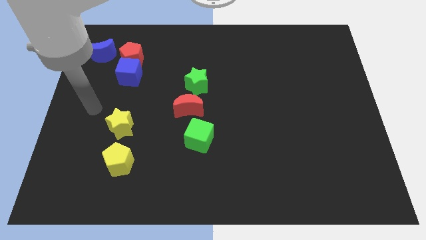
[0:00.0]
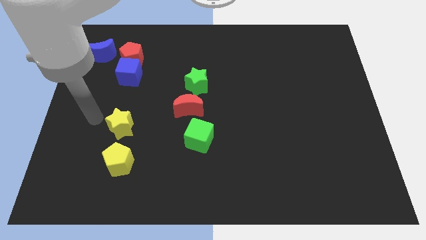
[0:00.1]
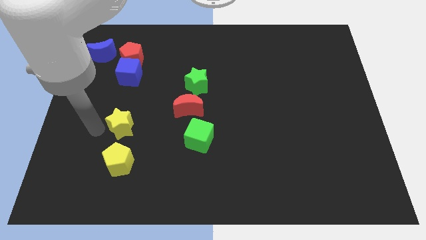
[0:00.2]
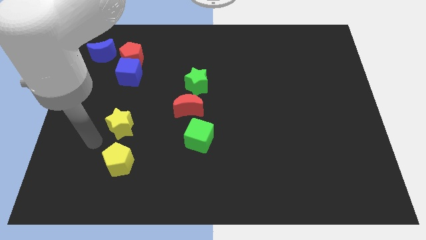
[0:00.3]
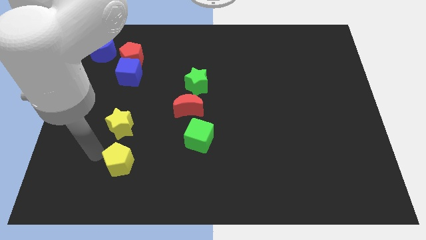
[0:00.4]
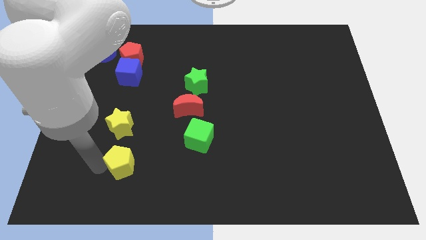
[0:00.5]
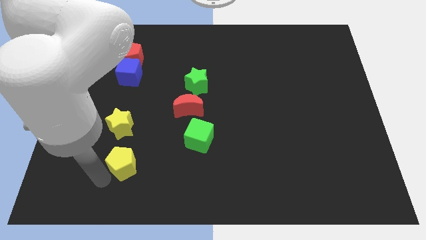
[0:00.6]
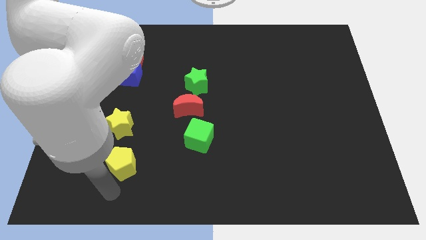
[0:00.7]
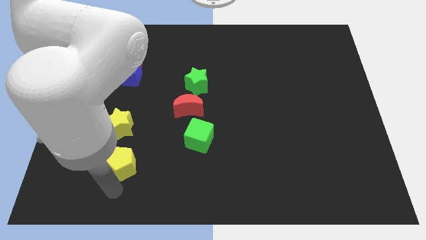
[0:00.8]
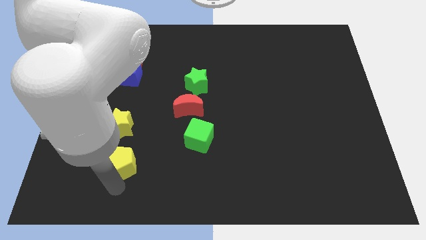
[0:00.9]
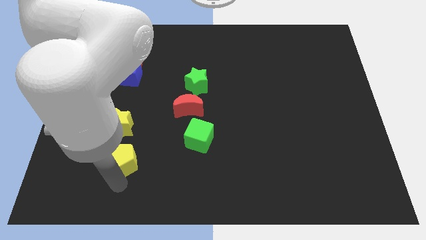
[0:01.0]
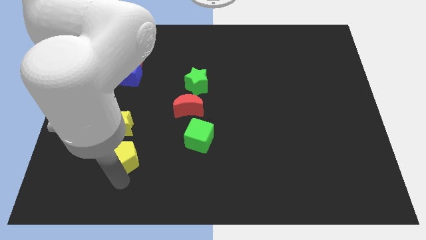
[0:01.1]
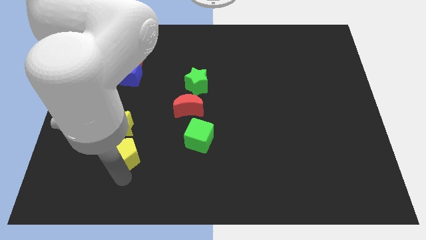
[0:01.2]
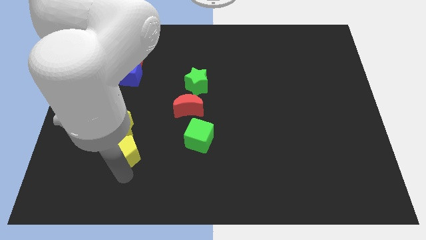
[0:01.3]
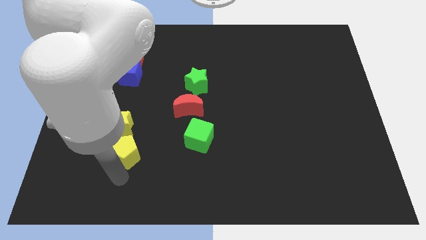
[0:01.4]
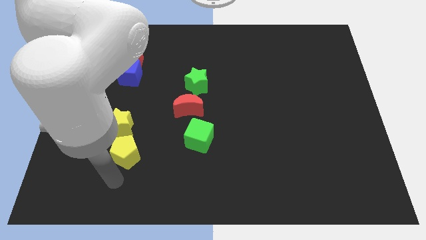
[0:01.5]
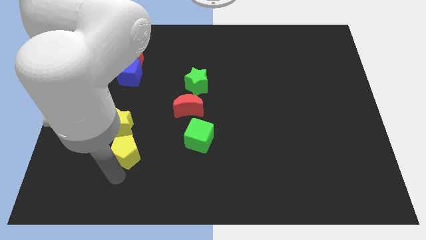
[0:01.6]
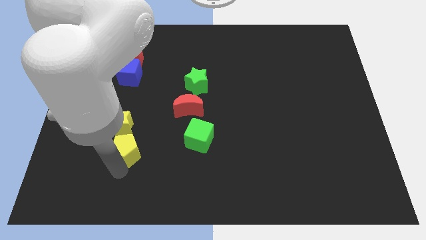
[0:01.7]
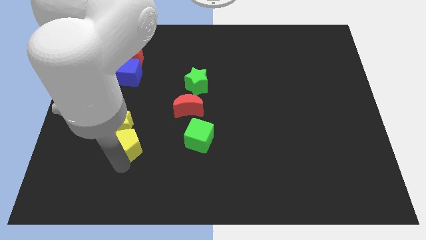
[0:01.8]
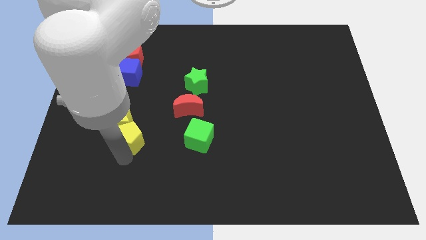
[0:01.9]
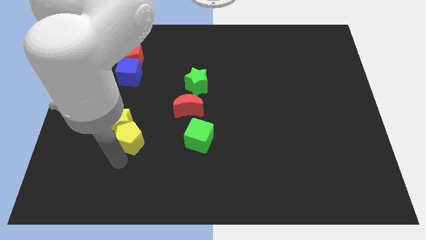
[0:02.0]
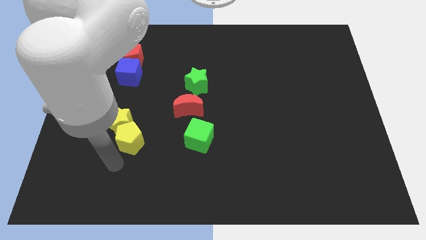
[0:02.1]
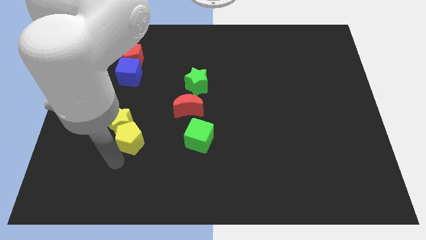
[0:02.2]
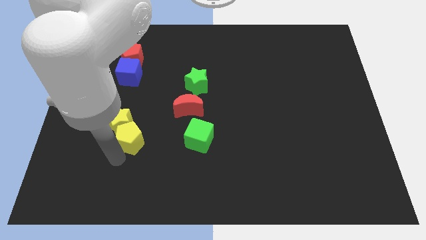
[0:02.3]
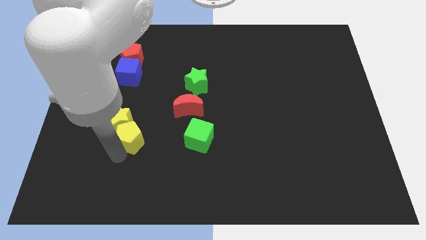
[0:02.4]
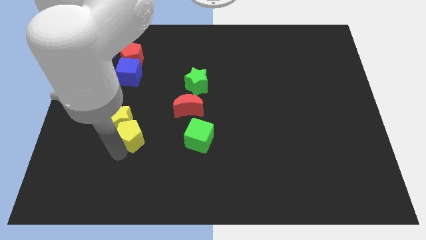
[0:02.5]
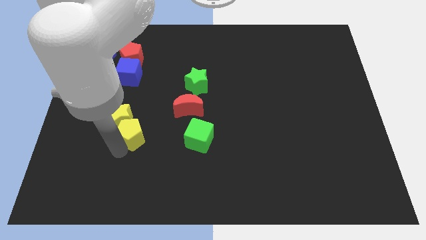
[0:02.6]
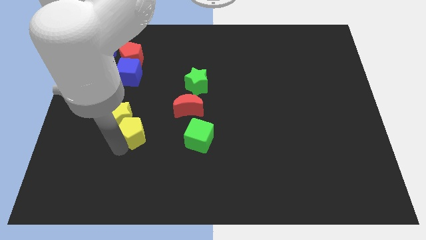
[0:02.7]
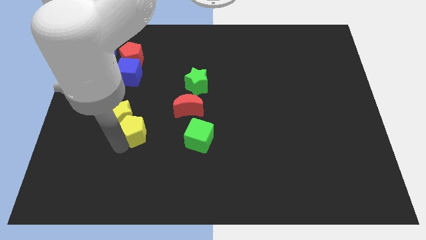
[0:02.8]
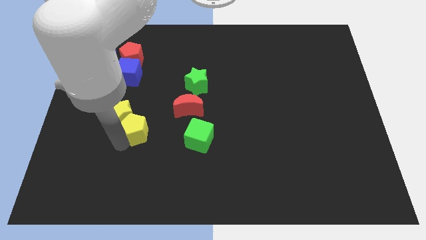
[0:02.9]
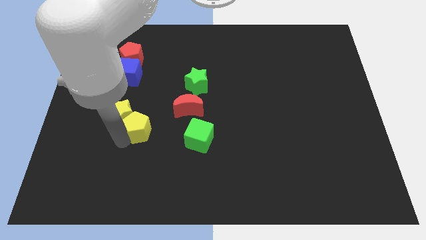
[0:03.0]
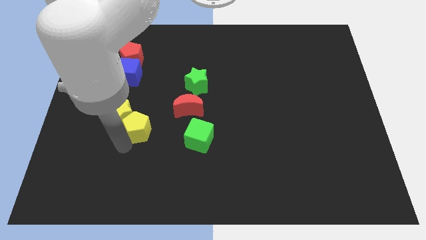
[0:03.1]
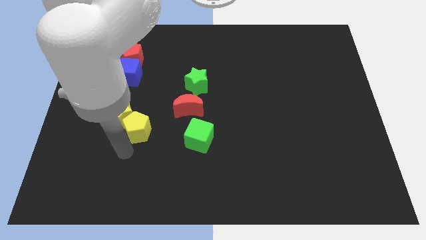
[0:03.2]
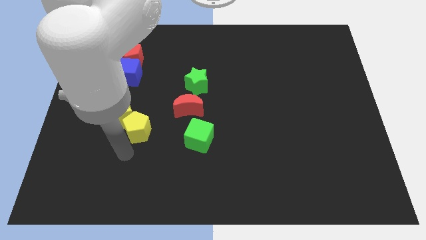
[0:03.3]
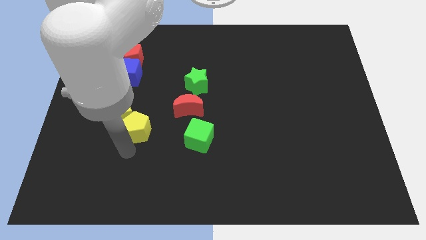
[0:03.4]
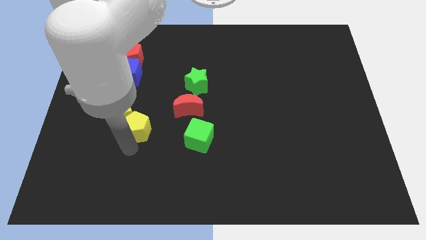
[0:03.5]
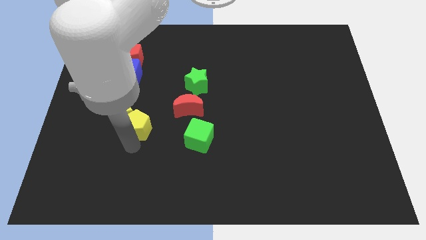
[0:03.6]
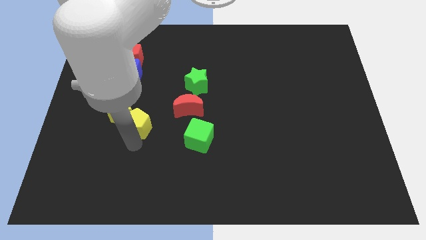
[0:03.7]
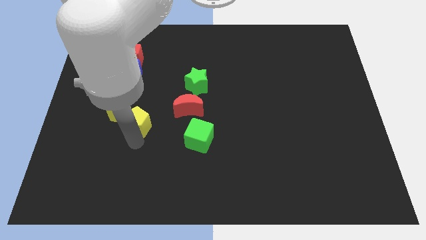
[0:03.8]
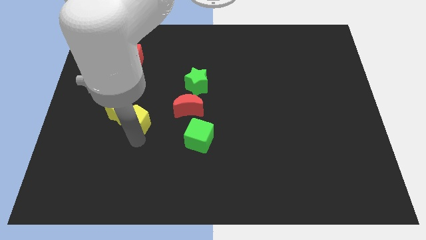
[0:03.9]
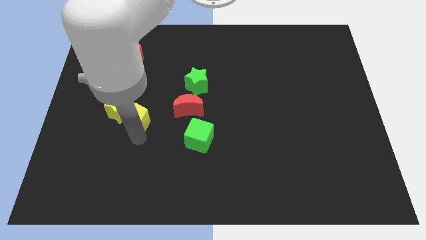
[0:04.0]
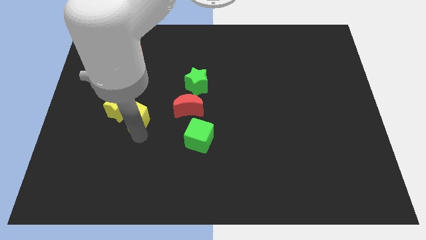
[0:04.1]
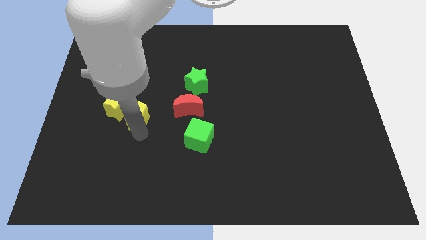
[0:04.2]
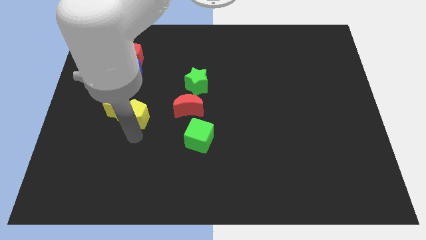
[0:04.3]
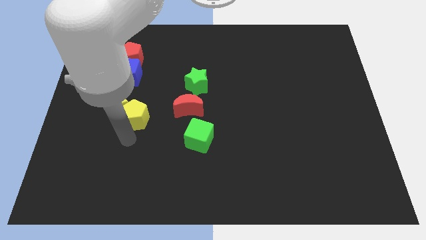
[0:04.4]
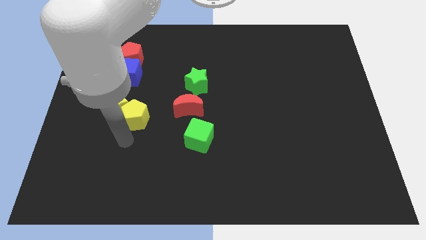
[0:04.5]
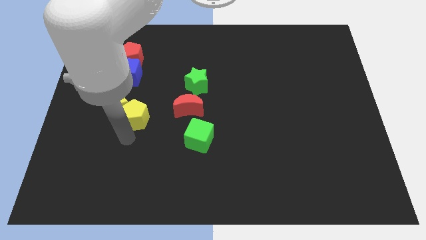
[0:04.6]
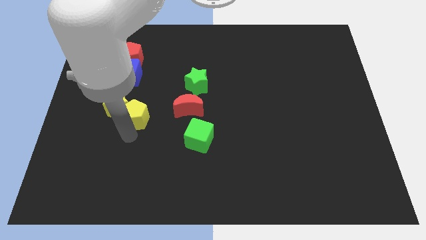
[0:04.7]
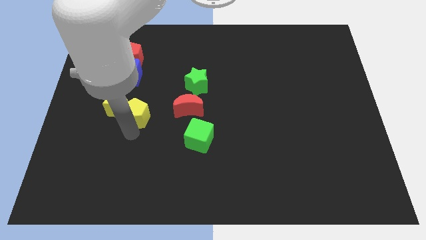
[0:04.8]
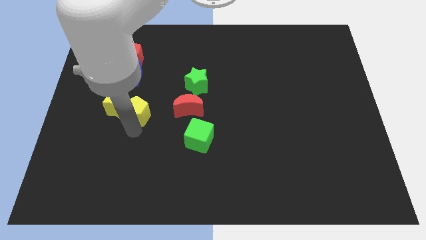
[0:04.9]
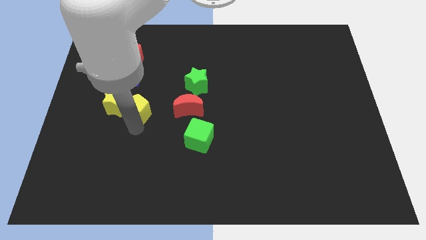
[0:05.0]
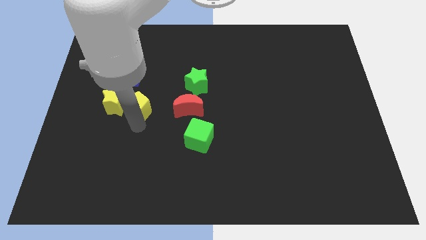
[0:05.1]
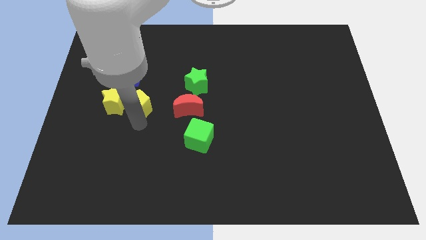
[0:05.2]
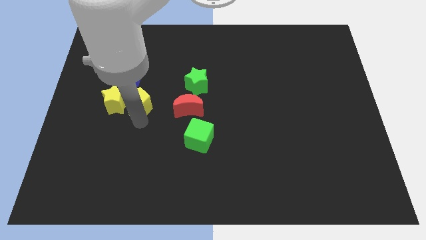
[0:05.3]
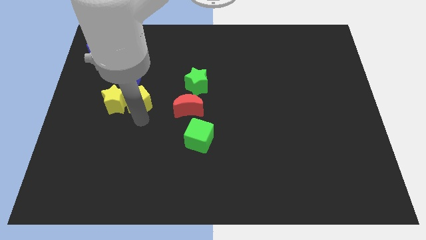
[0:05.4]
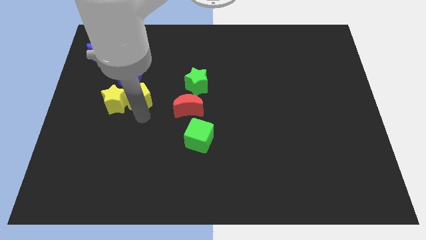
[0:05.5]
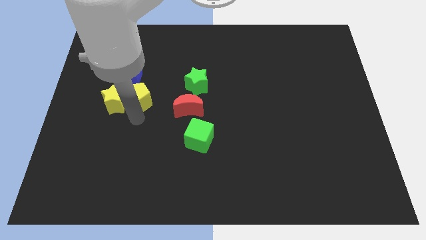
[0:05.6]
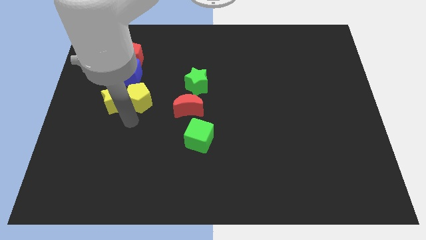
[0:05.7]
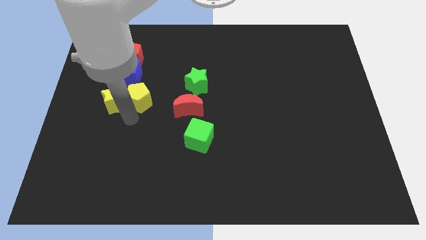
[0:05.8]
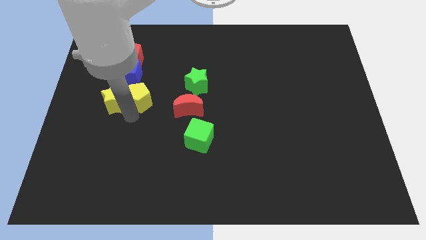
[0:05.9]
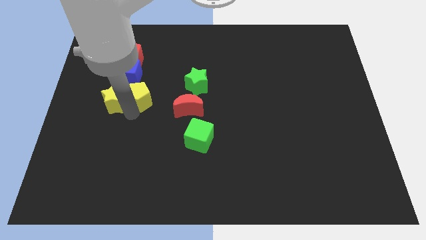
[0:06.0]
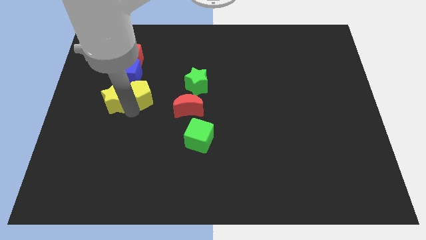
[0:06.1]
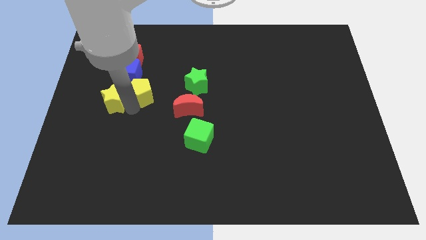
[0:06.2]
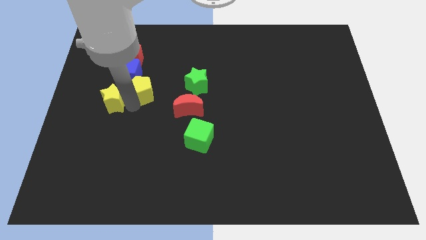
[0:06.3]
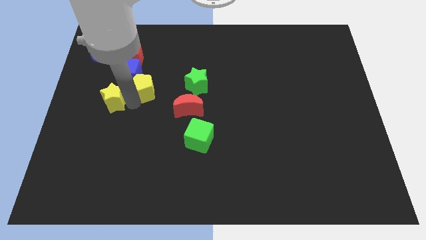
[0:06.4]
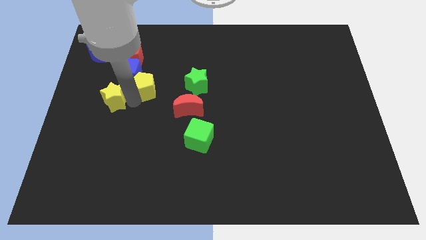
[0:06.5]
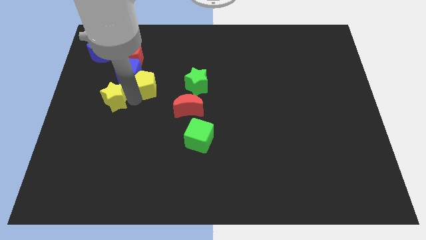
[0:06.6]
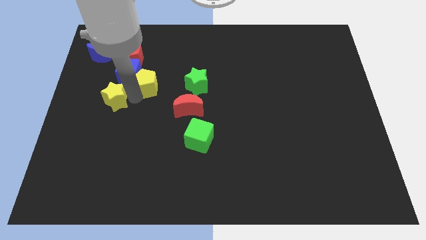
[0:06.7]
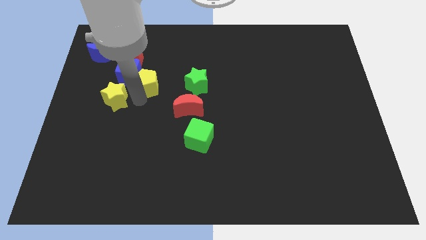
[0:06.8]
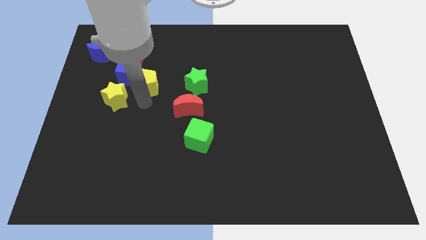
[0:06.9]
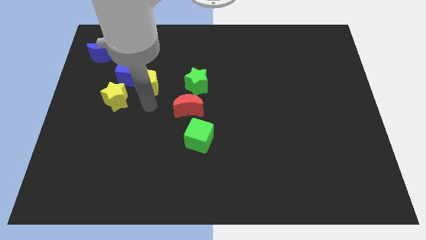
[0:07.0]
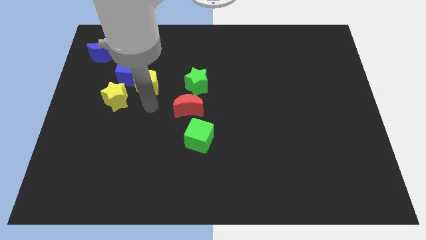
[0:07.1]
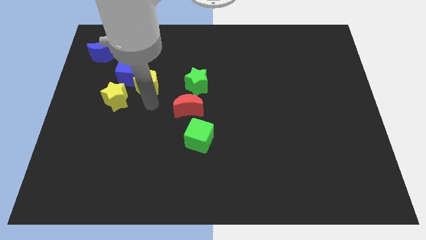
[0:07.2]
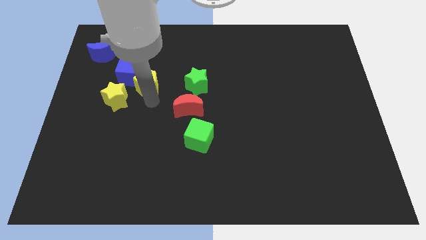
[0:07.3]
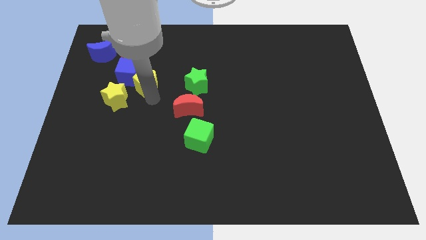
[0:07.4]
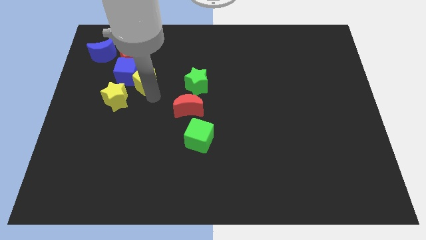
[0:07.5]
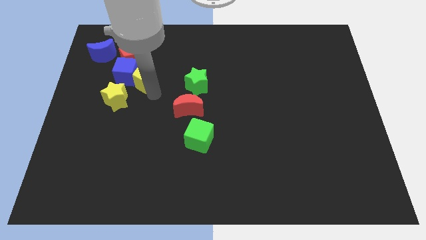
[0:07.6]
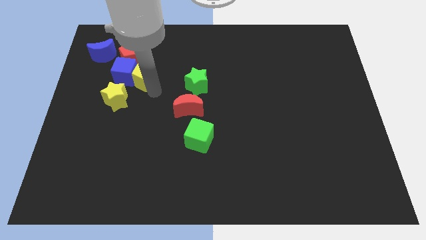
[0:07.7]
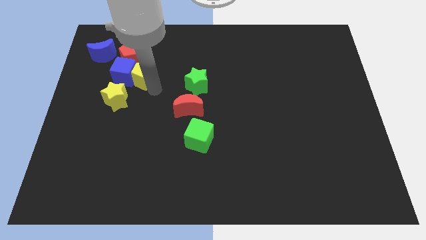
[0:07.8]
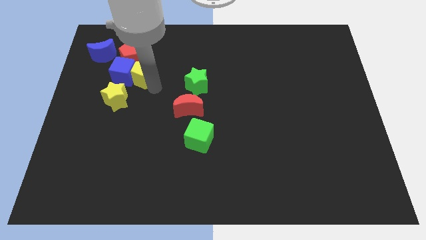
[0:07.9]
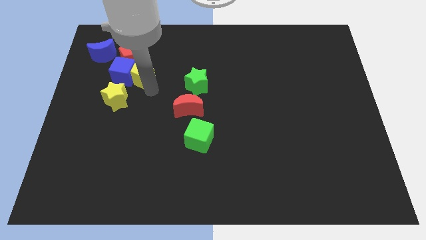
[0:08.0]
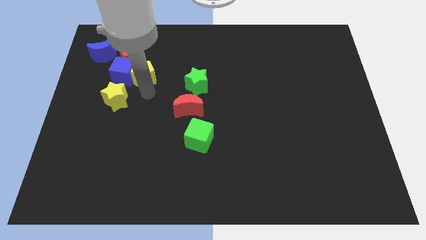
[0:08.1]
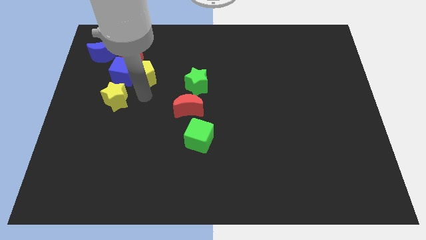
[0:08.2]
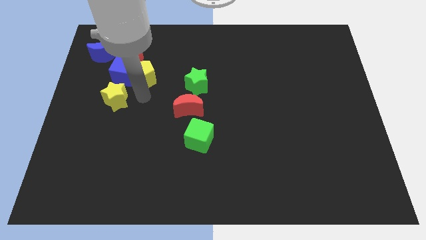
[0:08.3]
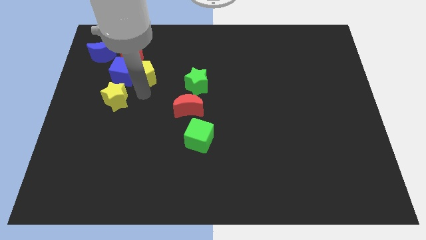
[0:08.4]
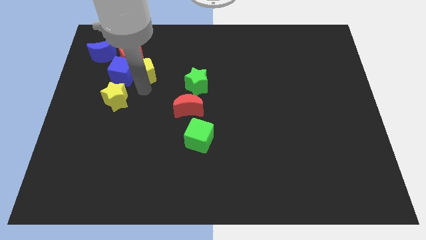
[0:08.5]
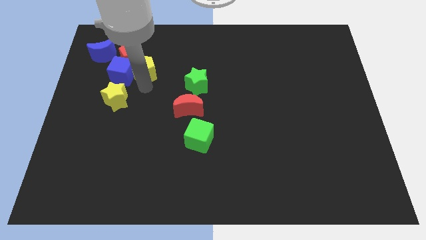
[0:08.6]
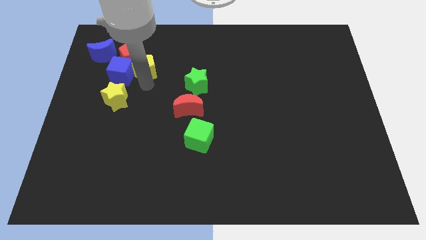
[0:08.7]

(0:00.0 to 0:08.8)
slide the yellow pentagon towards the red pentagon
